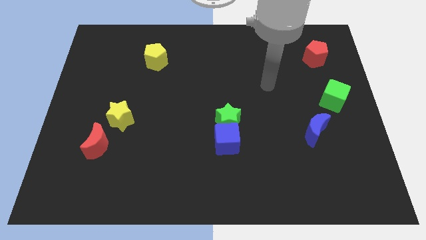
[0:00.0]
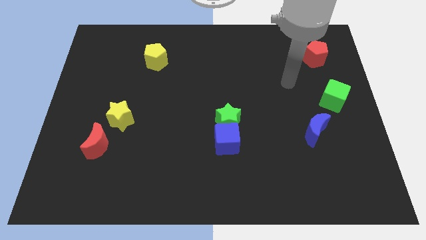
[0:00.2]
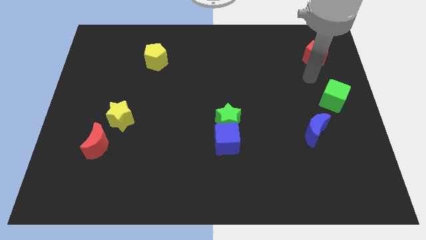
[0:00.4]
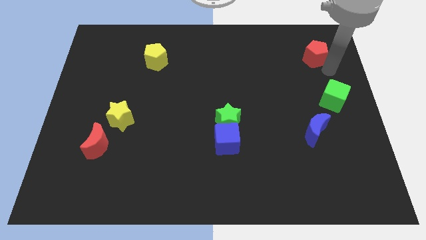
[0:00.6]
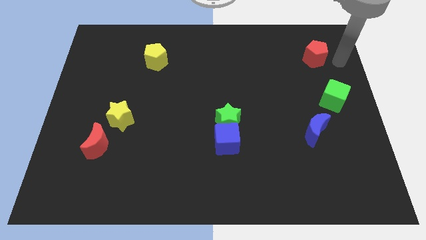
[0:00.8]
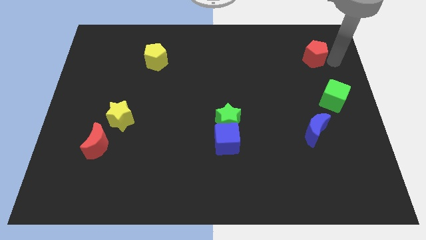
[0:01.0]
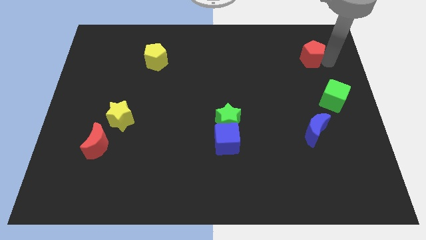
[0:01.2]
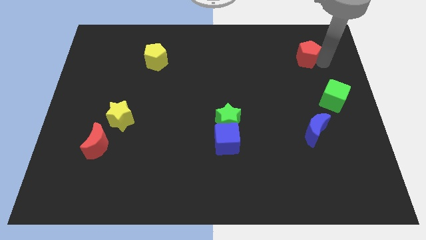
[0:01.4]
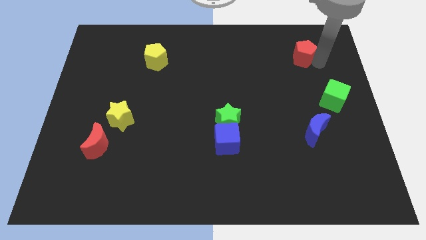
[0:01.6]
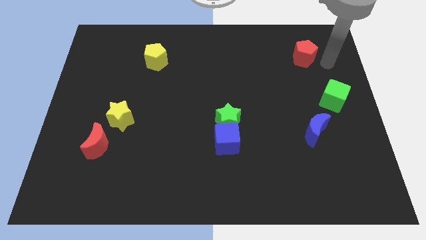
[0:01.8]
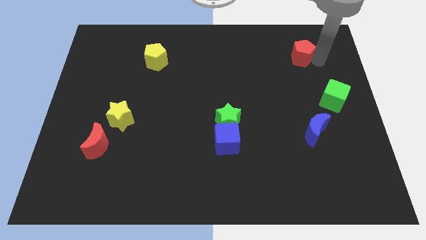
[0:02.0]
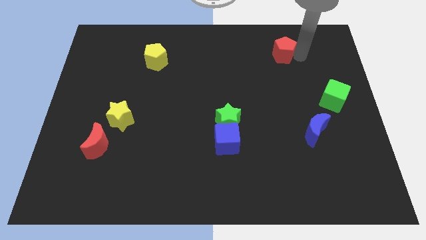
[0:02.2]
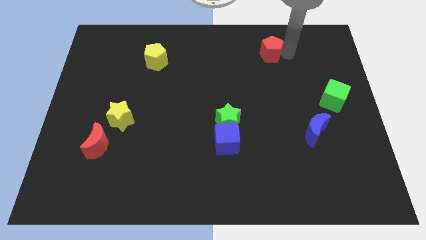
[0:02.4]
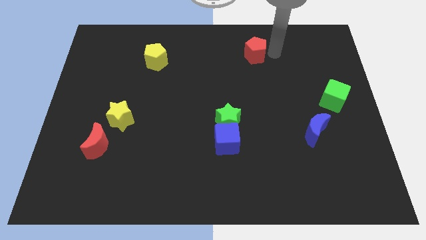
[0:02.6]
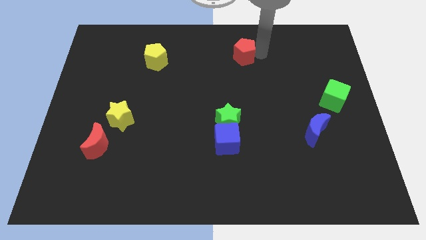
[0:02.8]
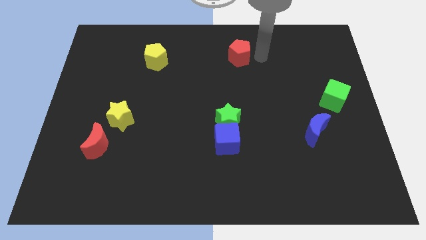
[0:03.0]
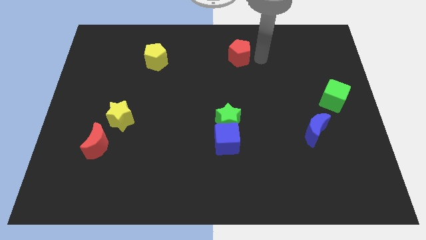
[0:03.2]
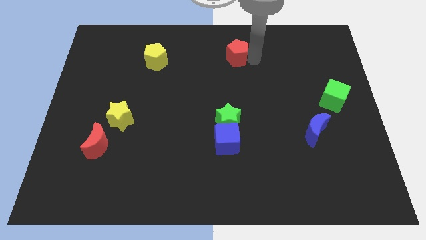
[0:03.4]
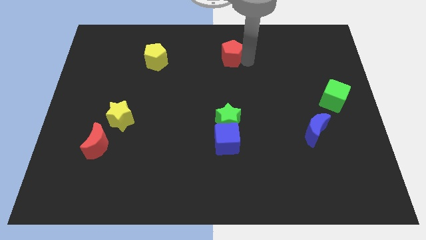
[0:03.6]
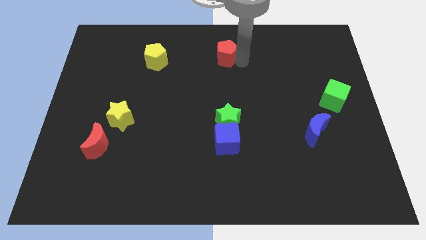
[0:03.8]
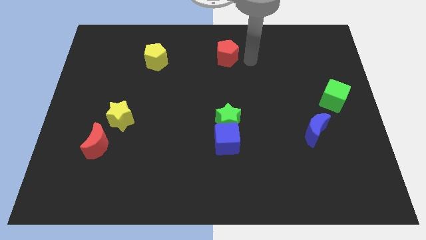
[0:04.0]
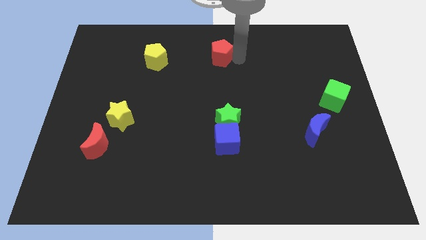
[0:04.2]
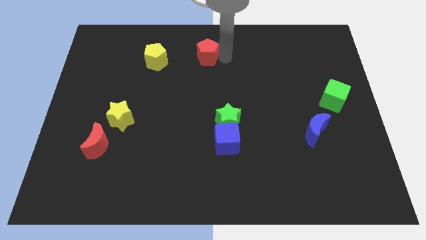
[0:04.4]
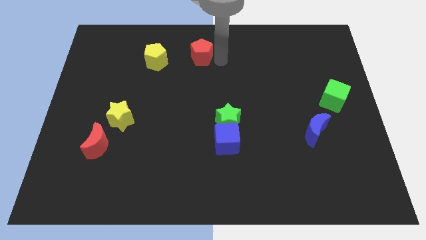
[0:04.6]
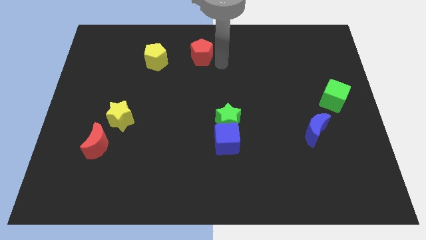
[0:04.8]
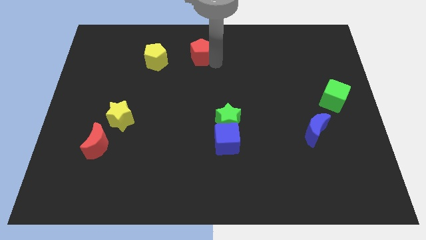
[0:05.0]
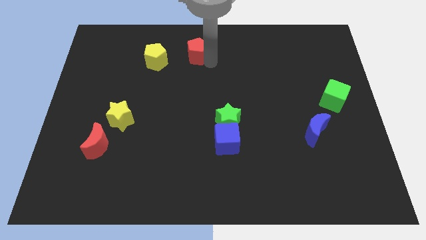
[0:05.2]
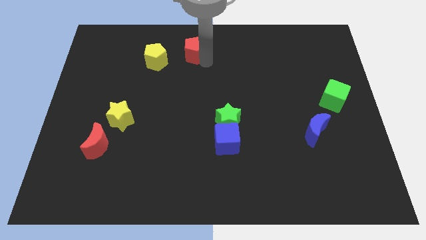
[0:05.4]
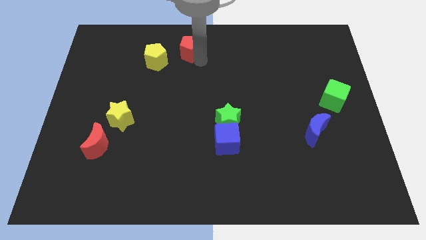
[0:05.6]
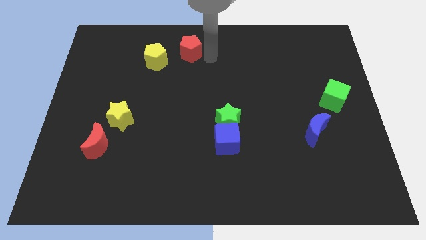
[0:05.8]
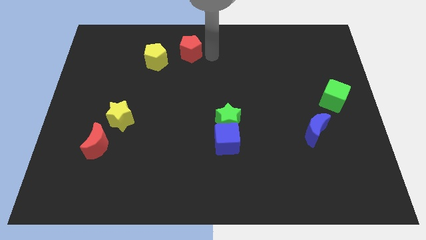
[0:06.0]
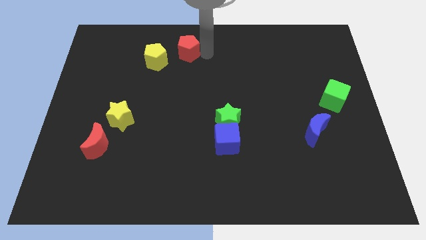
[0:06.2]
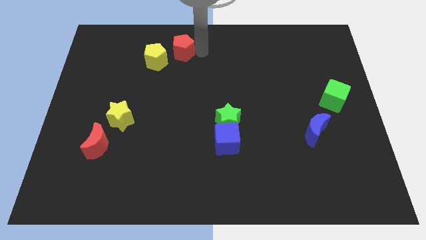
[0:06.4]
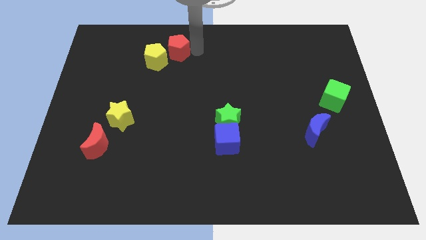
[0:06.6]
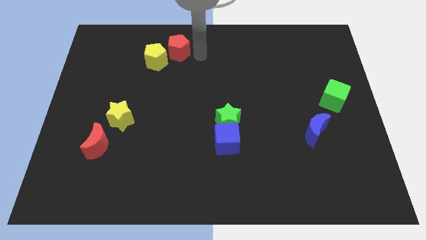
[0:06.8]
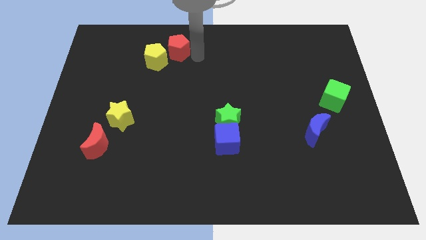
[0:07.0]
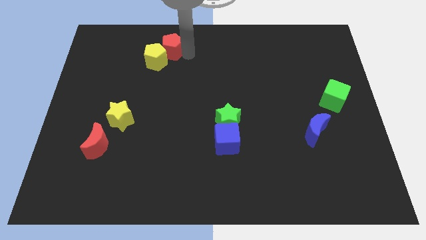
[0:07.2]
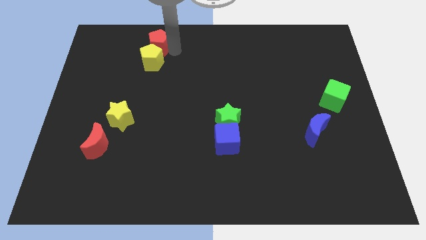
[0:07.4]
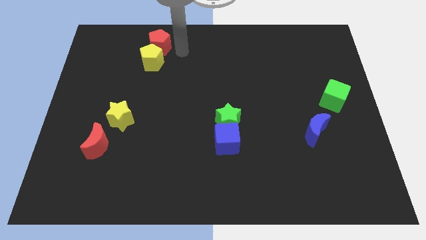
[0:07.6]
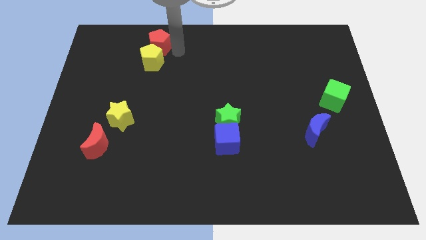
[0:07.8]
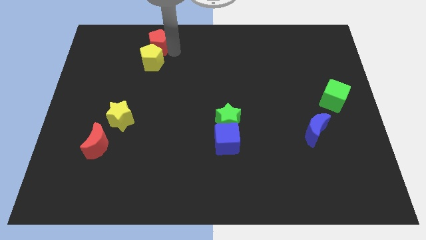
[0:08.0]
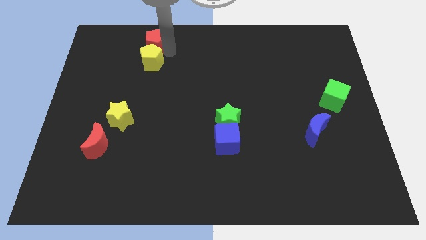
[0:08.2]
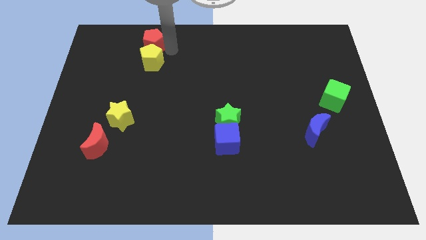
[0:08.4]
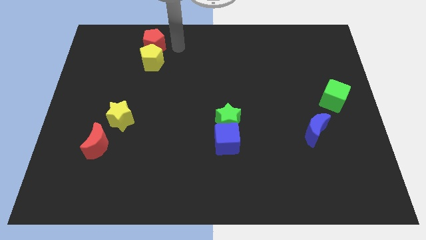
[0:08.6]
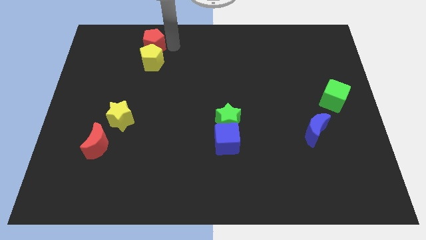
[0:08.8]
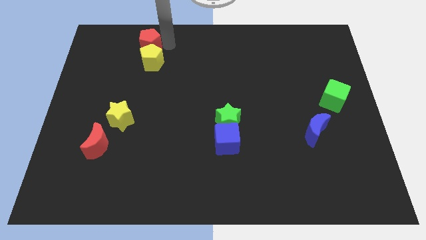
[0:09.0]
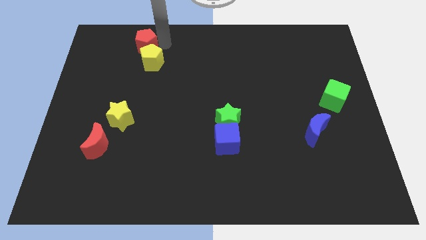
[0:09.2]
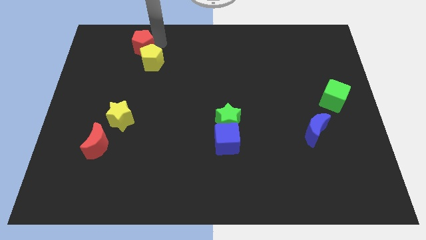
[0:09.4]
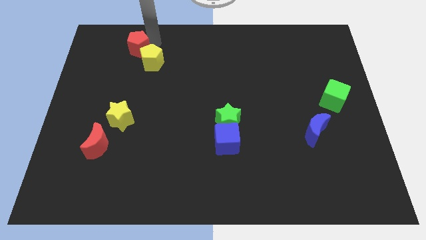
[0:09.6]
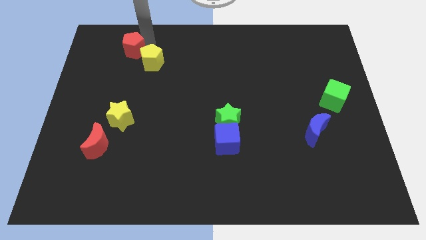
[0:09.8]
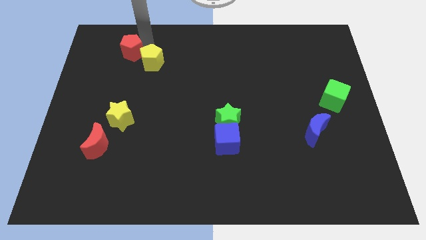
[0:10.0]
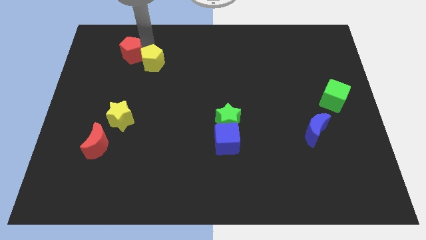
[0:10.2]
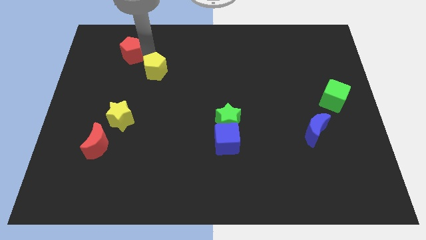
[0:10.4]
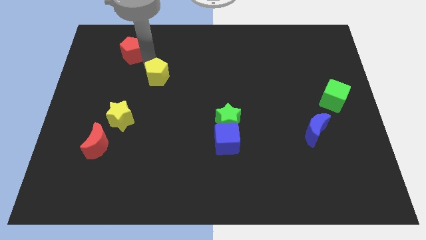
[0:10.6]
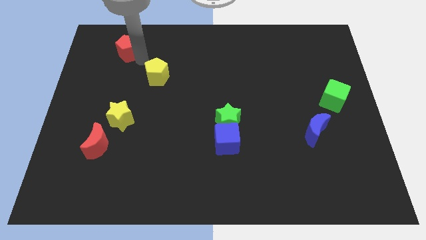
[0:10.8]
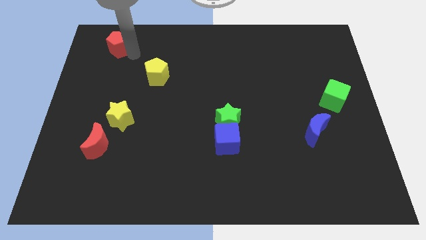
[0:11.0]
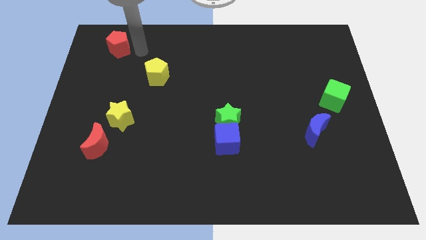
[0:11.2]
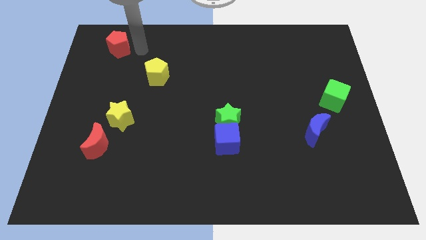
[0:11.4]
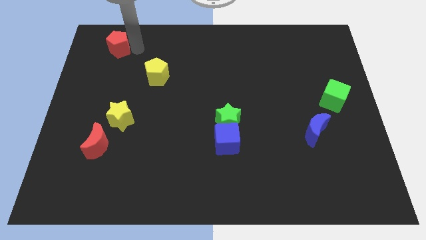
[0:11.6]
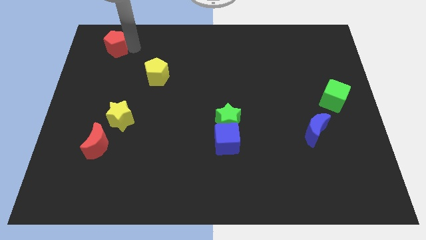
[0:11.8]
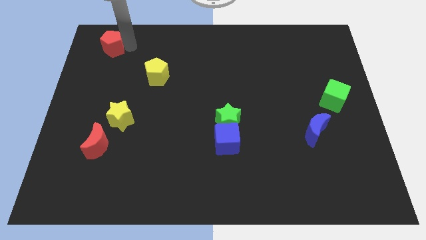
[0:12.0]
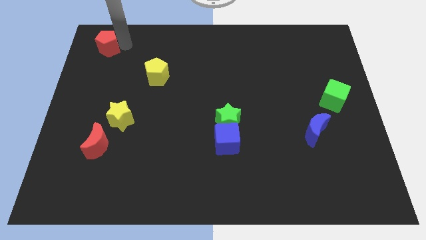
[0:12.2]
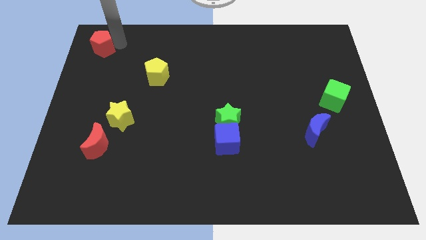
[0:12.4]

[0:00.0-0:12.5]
put the red pentagon to the top left

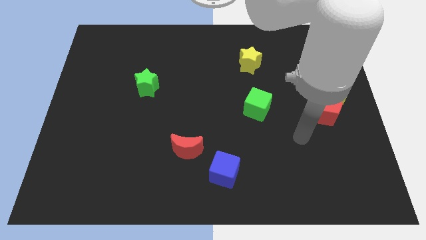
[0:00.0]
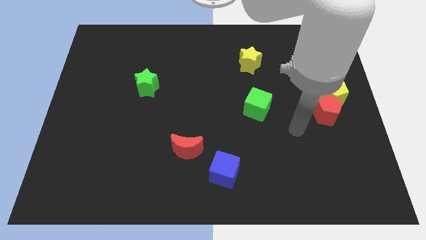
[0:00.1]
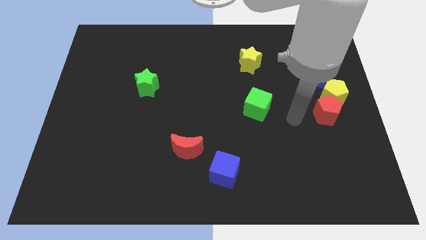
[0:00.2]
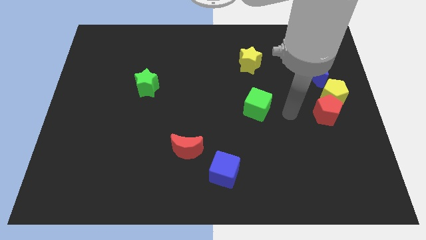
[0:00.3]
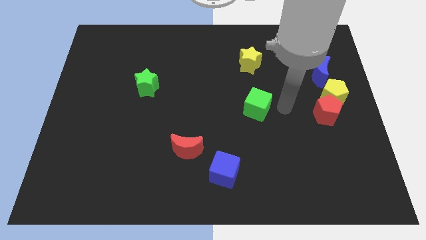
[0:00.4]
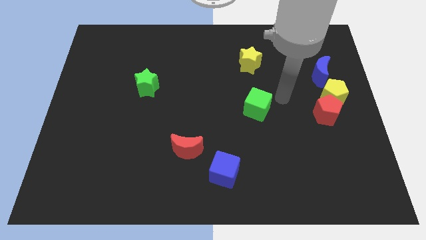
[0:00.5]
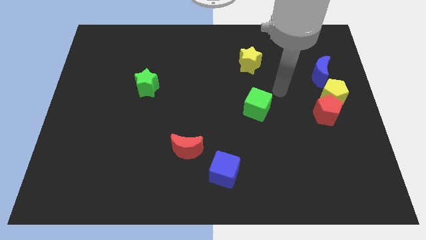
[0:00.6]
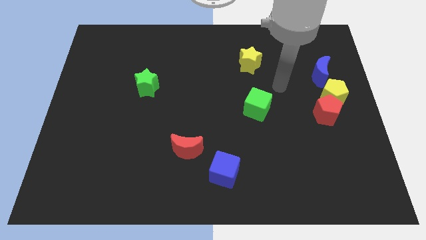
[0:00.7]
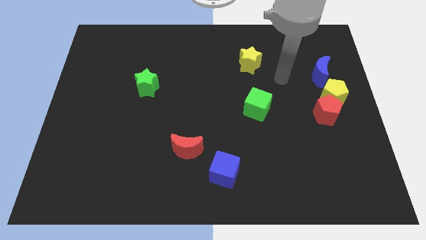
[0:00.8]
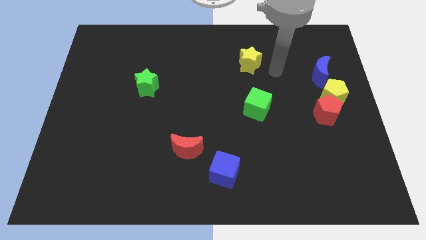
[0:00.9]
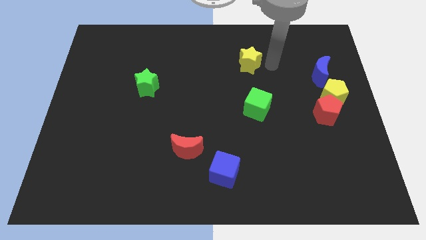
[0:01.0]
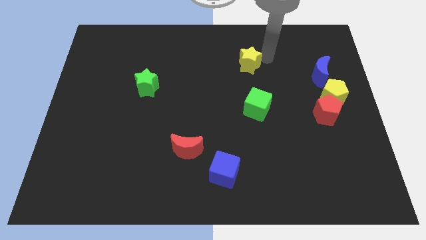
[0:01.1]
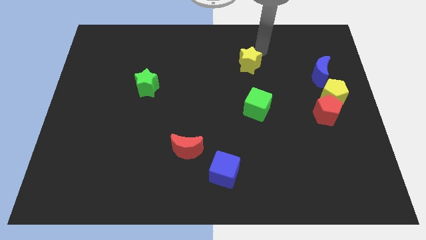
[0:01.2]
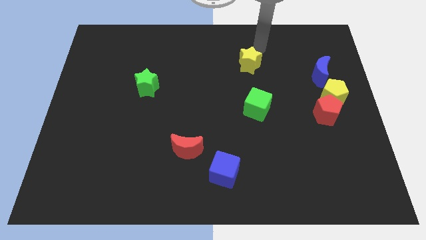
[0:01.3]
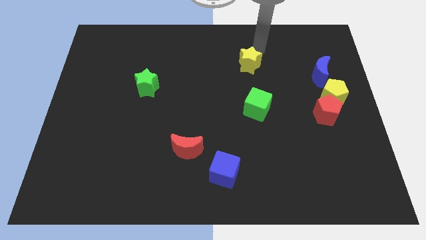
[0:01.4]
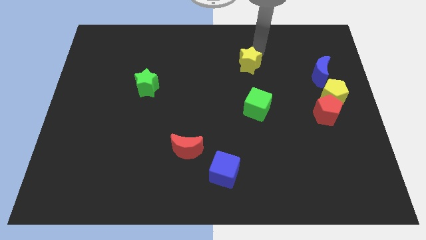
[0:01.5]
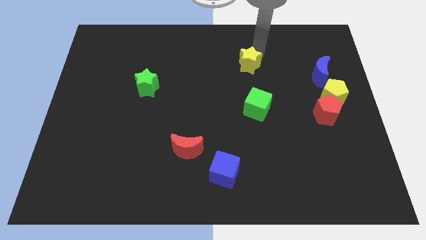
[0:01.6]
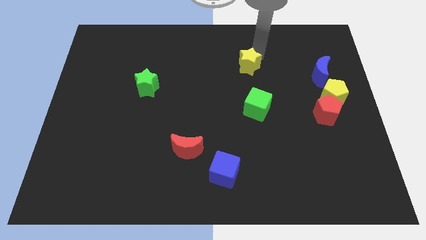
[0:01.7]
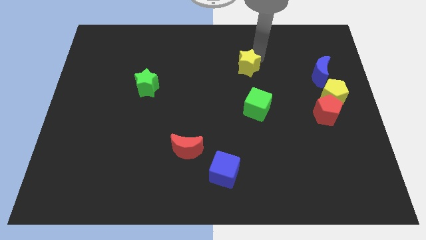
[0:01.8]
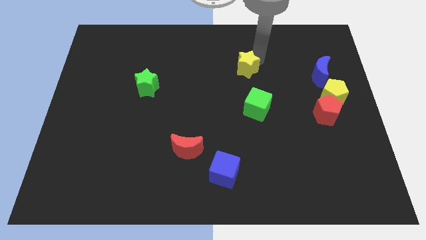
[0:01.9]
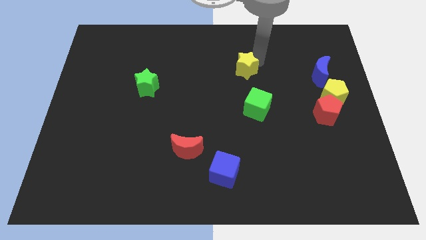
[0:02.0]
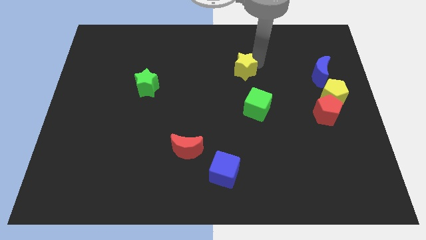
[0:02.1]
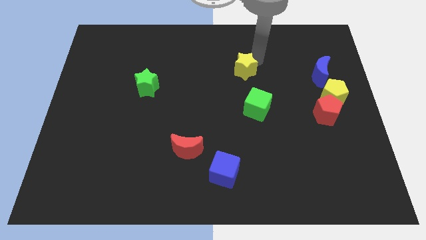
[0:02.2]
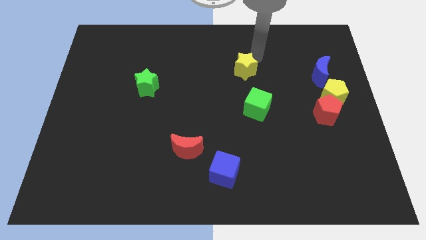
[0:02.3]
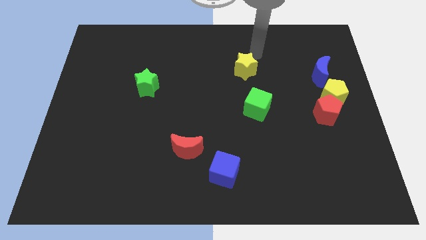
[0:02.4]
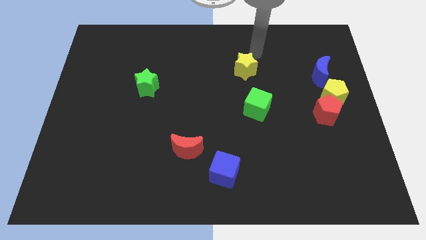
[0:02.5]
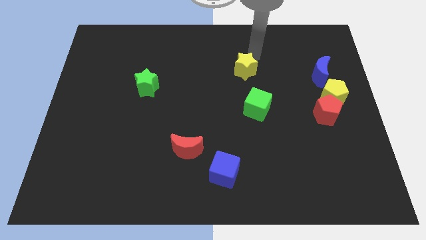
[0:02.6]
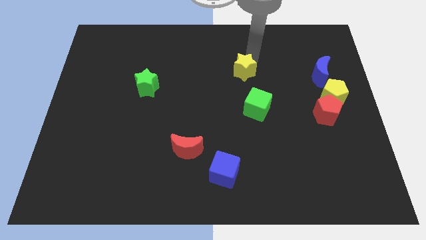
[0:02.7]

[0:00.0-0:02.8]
slide the yellow star to the center
